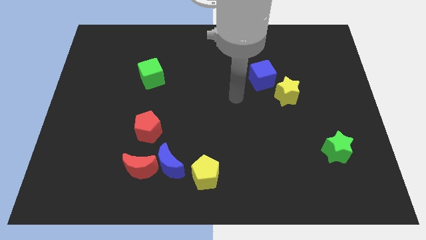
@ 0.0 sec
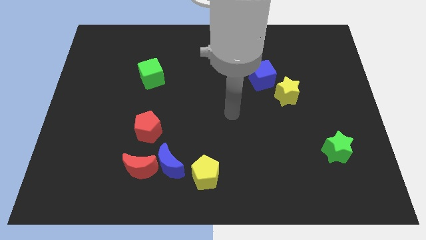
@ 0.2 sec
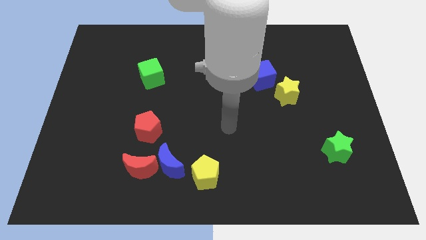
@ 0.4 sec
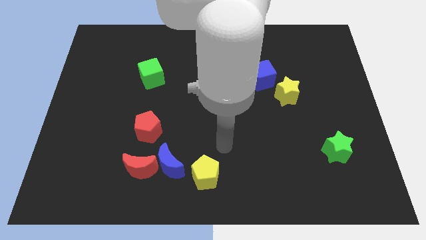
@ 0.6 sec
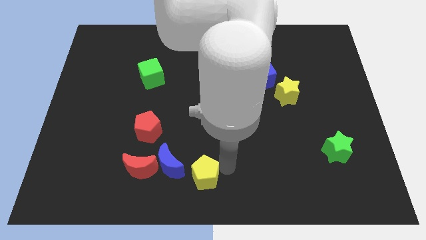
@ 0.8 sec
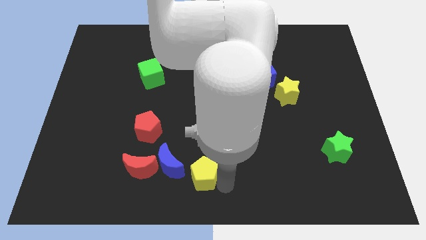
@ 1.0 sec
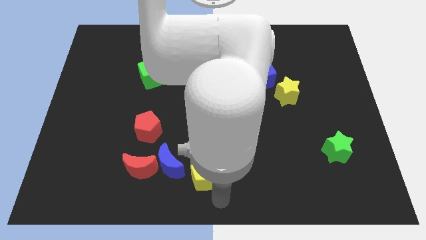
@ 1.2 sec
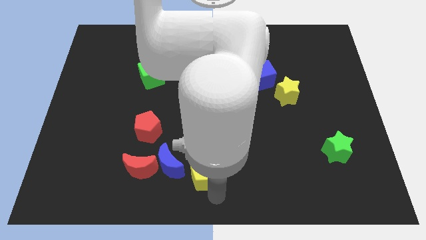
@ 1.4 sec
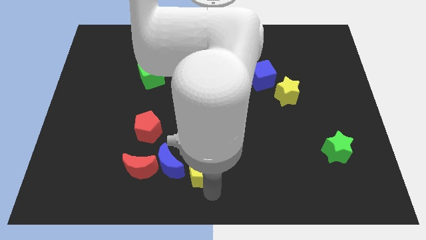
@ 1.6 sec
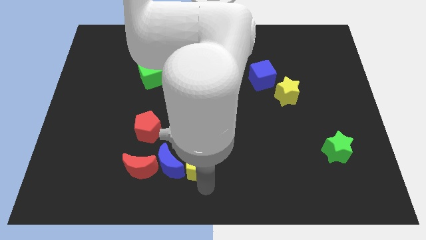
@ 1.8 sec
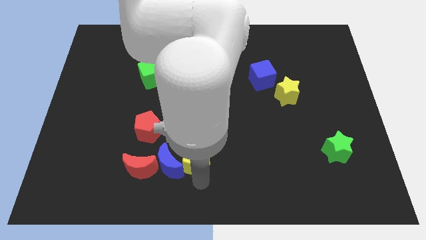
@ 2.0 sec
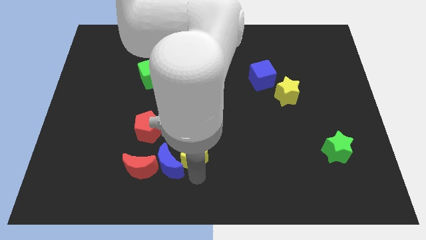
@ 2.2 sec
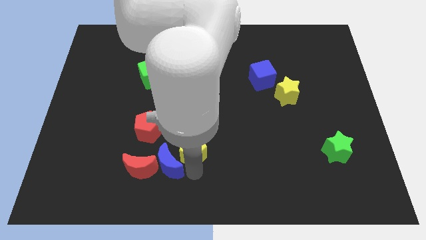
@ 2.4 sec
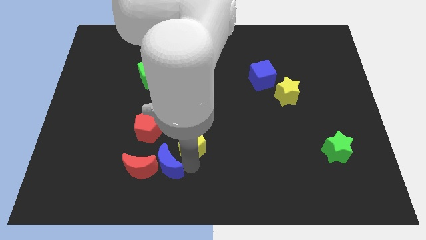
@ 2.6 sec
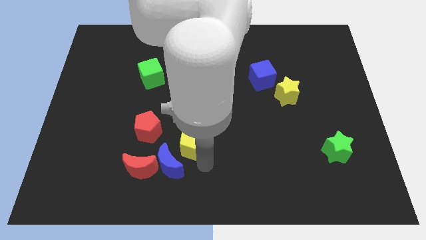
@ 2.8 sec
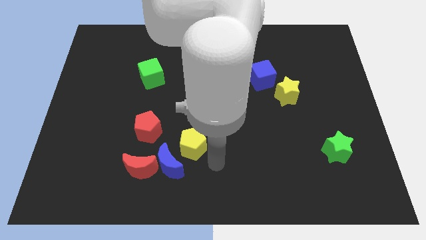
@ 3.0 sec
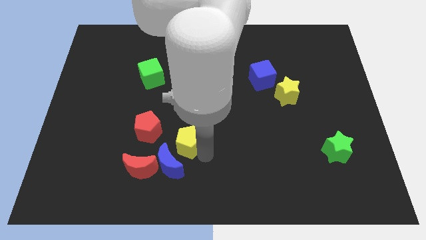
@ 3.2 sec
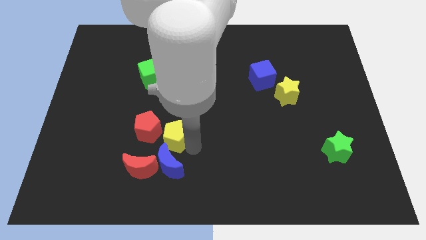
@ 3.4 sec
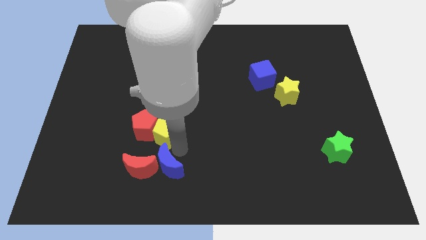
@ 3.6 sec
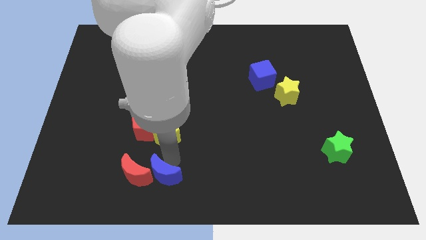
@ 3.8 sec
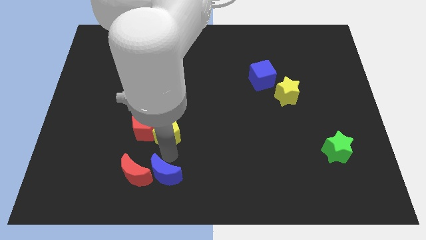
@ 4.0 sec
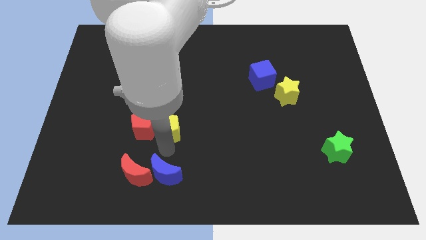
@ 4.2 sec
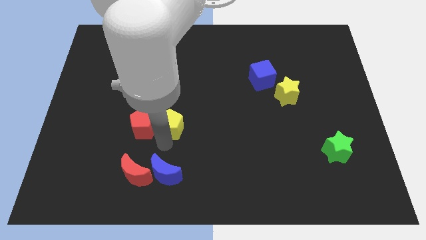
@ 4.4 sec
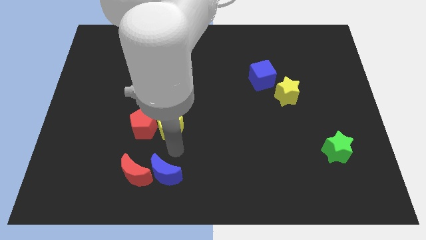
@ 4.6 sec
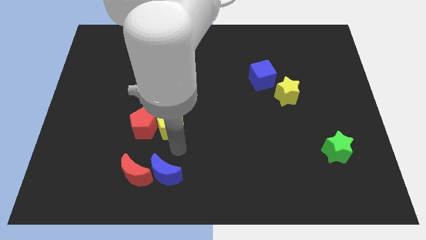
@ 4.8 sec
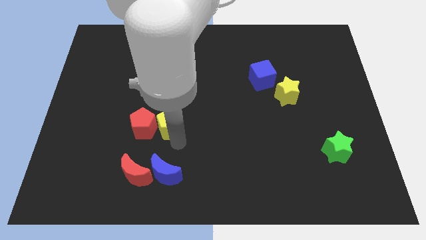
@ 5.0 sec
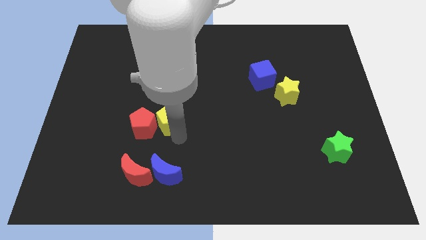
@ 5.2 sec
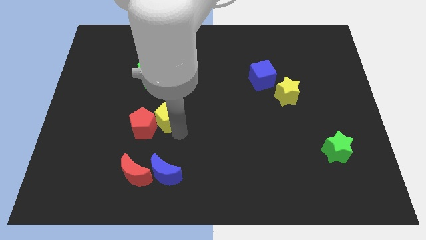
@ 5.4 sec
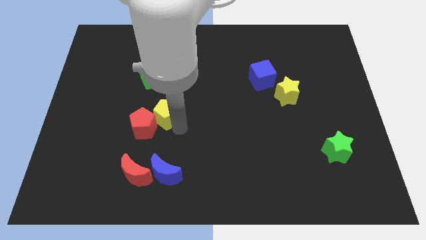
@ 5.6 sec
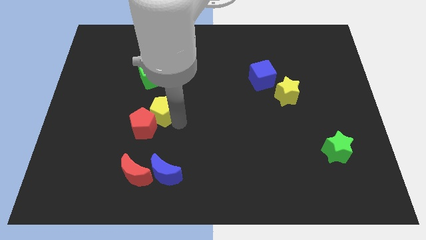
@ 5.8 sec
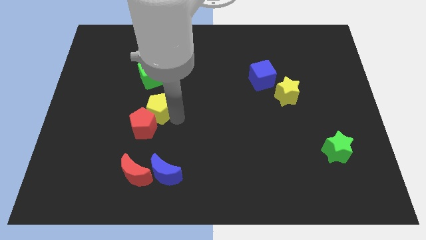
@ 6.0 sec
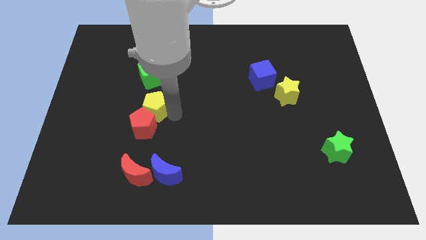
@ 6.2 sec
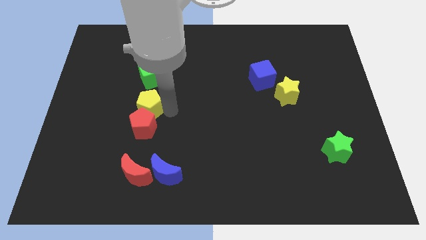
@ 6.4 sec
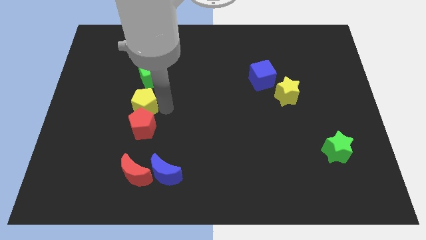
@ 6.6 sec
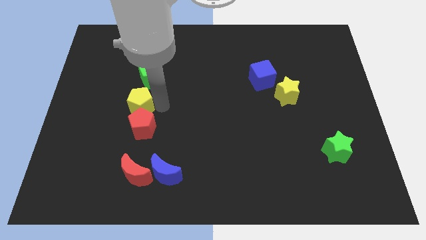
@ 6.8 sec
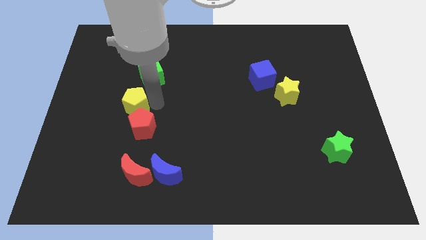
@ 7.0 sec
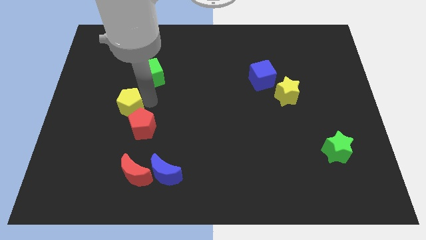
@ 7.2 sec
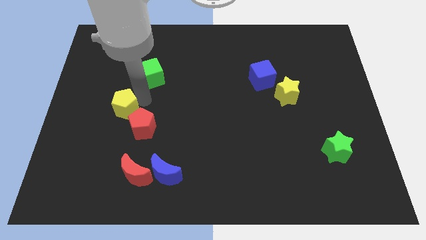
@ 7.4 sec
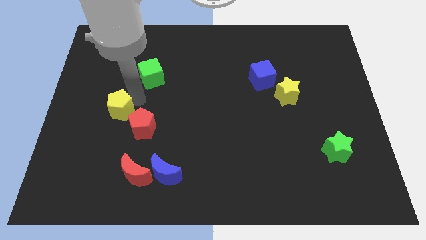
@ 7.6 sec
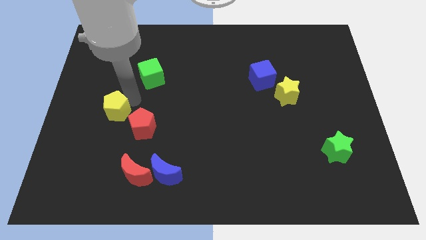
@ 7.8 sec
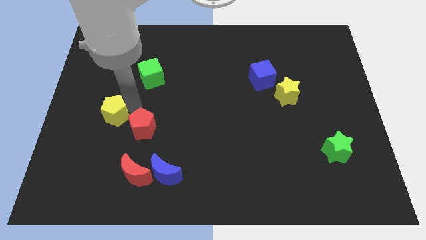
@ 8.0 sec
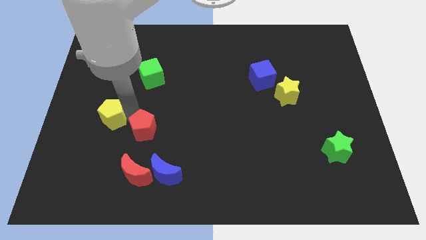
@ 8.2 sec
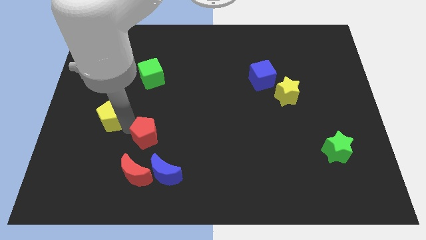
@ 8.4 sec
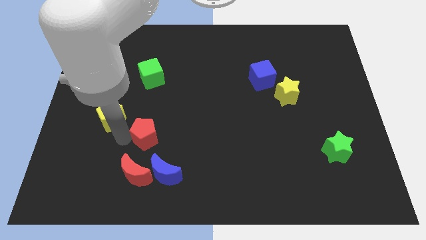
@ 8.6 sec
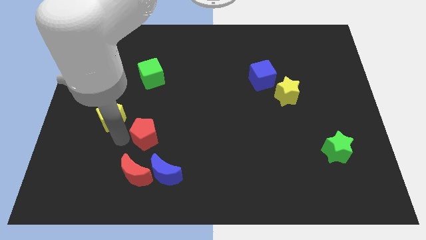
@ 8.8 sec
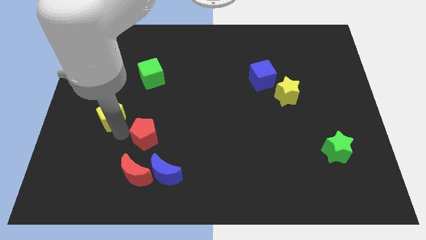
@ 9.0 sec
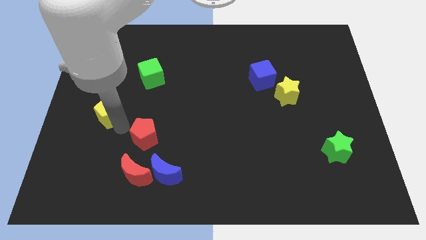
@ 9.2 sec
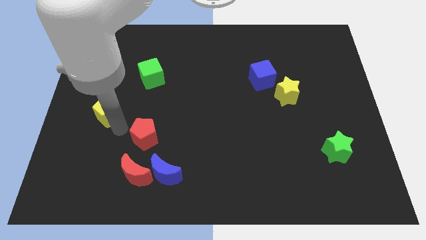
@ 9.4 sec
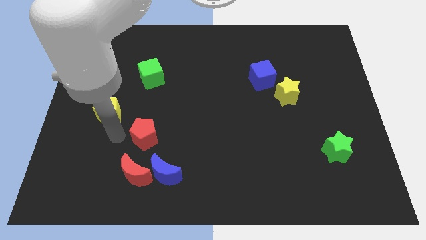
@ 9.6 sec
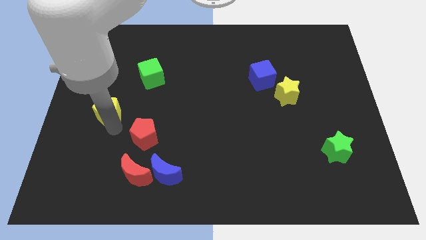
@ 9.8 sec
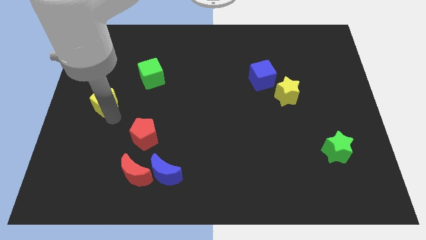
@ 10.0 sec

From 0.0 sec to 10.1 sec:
move the yellow pentagon to the left side

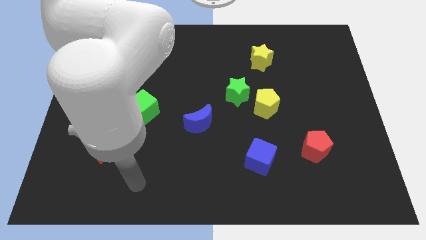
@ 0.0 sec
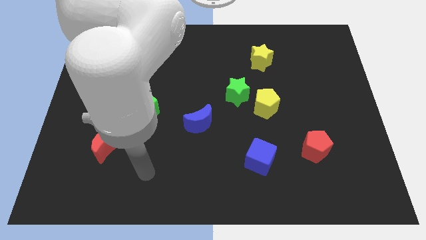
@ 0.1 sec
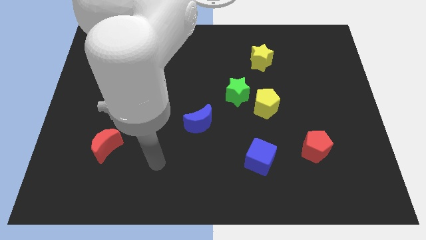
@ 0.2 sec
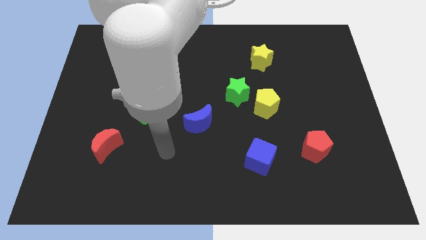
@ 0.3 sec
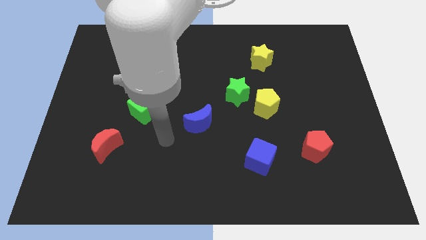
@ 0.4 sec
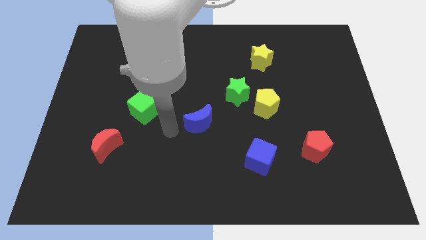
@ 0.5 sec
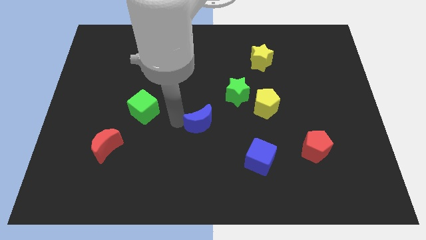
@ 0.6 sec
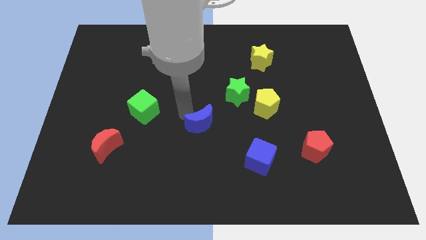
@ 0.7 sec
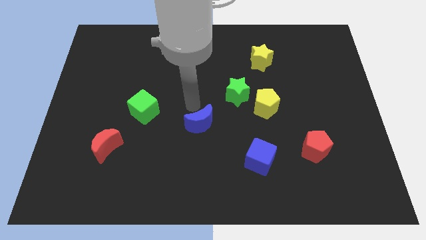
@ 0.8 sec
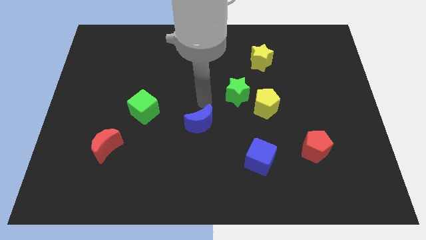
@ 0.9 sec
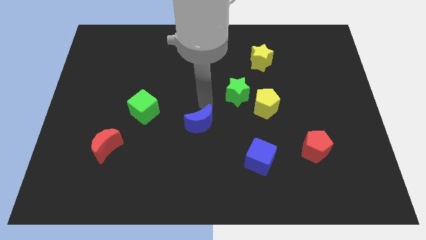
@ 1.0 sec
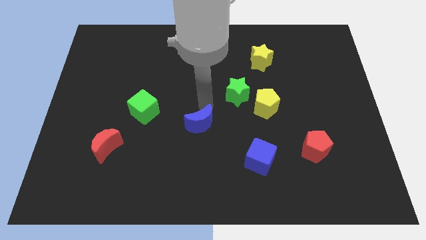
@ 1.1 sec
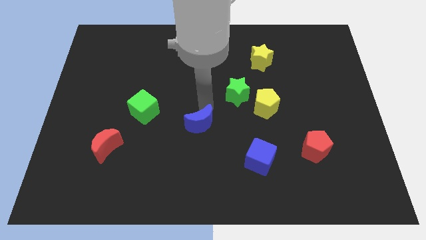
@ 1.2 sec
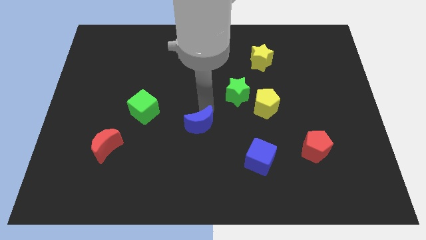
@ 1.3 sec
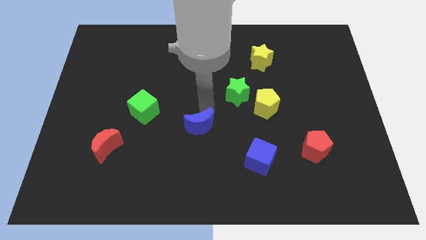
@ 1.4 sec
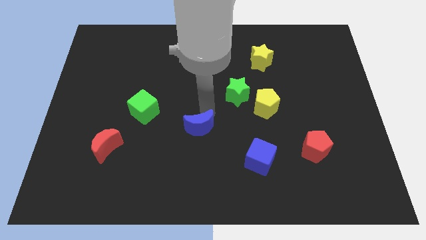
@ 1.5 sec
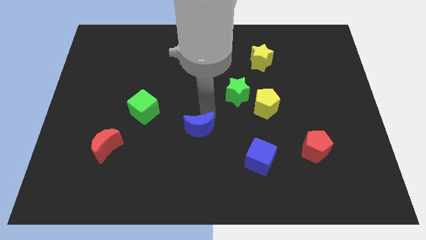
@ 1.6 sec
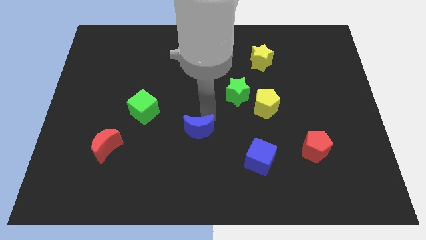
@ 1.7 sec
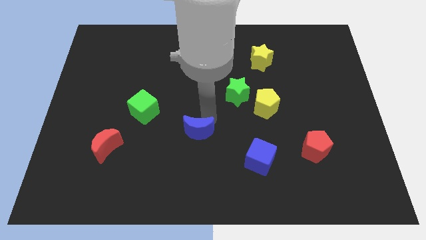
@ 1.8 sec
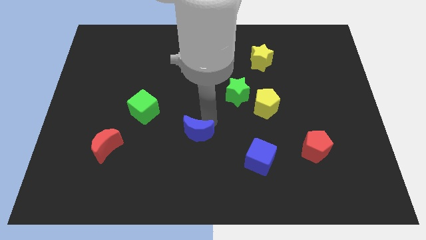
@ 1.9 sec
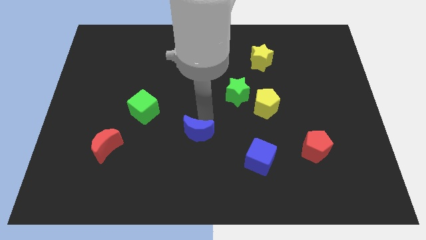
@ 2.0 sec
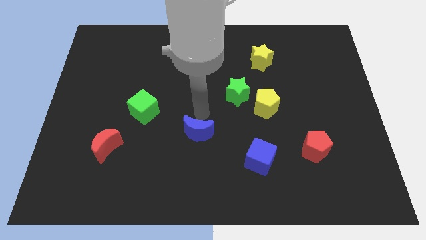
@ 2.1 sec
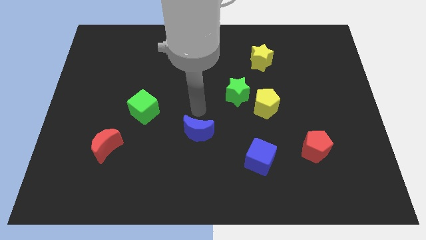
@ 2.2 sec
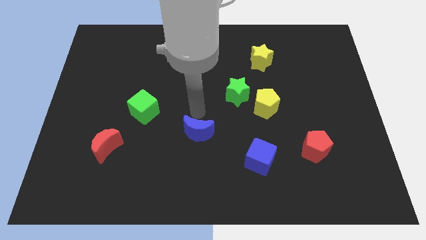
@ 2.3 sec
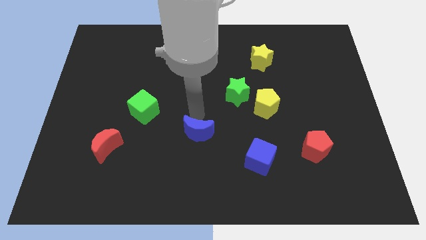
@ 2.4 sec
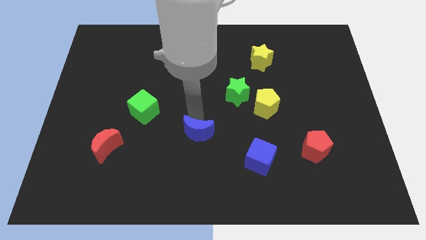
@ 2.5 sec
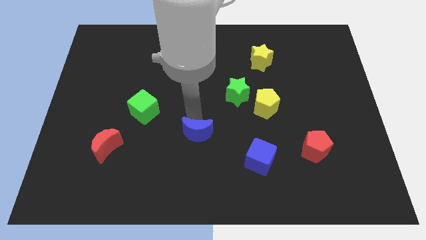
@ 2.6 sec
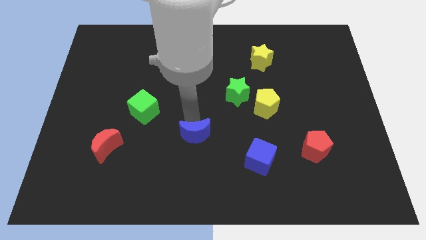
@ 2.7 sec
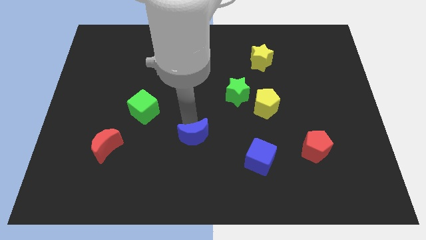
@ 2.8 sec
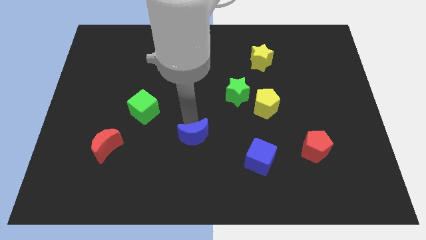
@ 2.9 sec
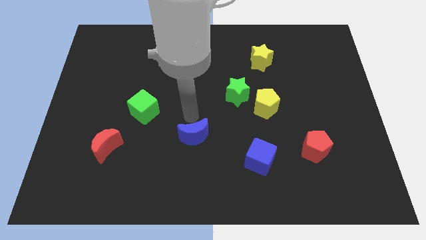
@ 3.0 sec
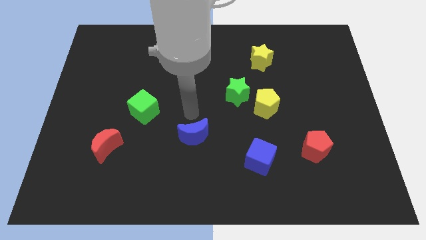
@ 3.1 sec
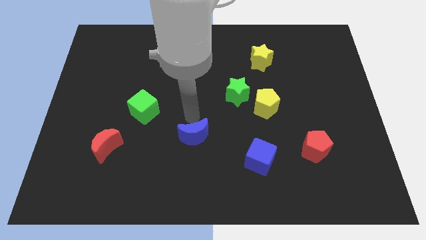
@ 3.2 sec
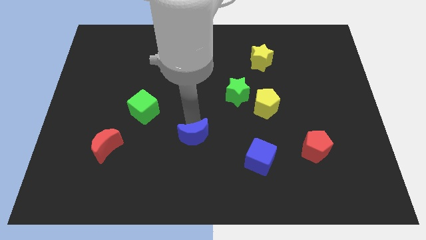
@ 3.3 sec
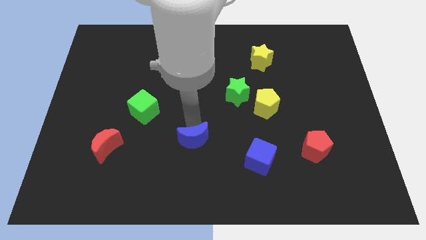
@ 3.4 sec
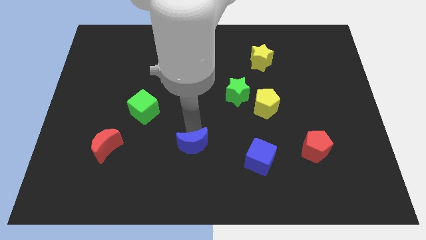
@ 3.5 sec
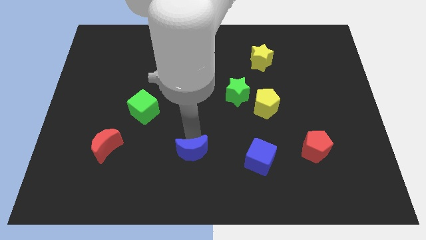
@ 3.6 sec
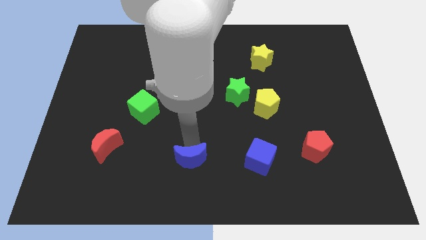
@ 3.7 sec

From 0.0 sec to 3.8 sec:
push the blue moon to the bottom side
